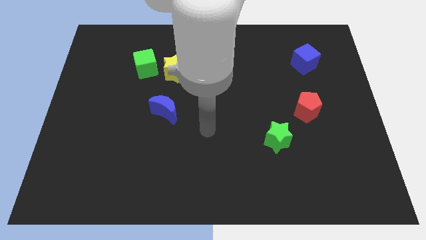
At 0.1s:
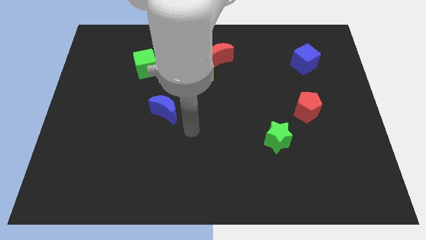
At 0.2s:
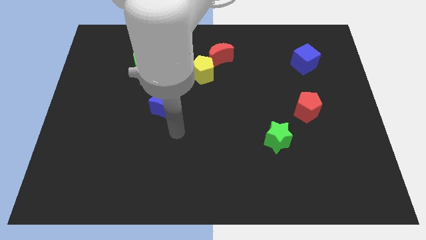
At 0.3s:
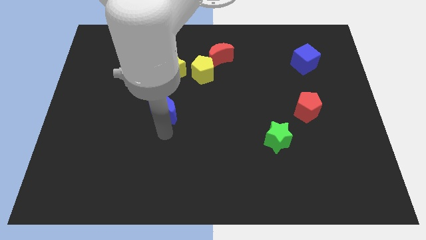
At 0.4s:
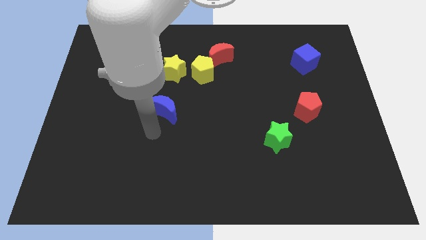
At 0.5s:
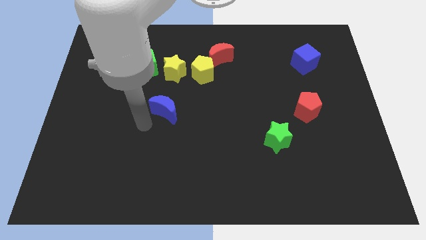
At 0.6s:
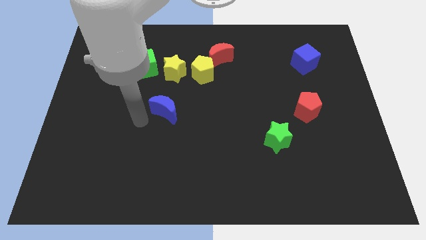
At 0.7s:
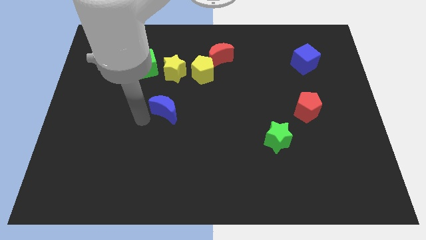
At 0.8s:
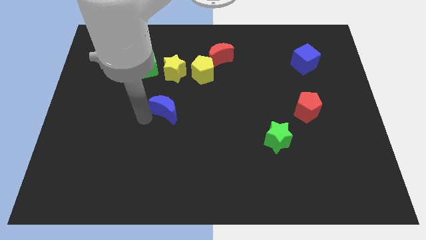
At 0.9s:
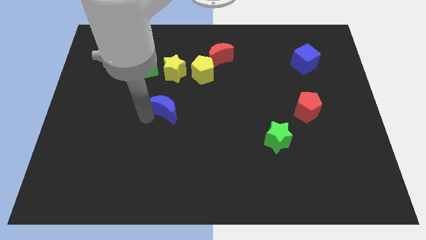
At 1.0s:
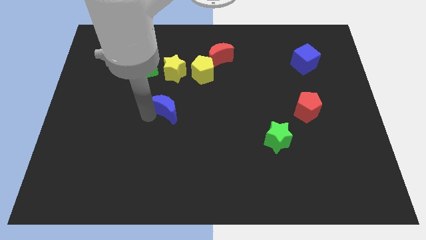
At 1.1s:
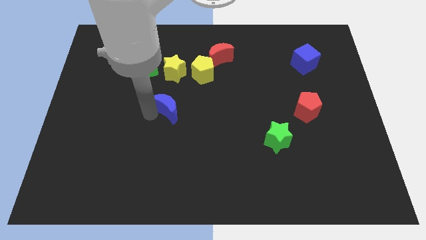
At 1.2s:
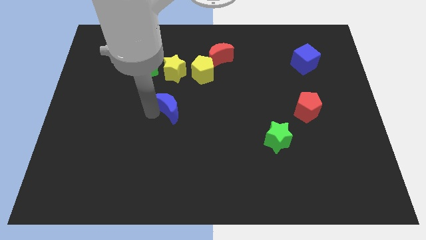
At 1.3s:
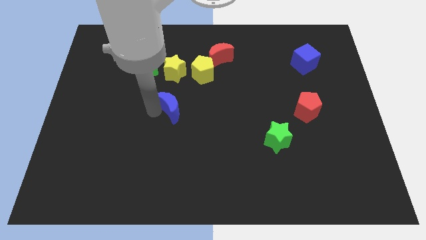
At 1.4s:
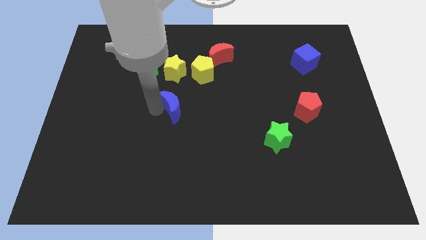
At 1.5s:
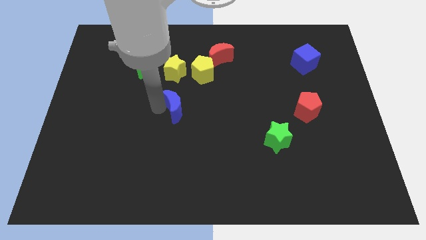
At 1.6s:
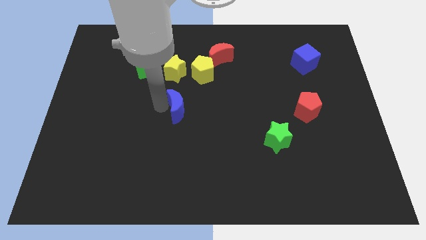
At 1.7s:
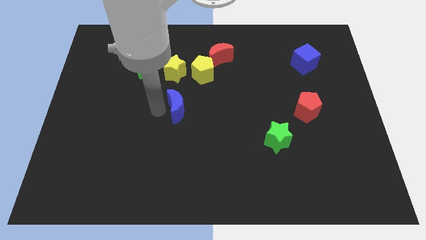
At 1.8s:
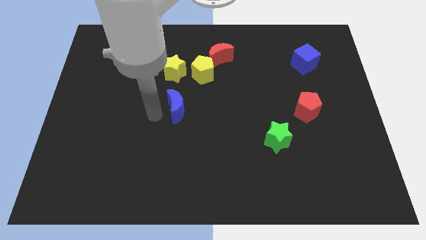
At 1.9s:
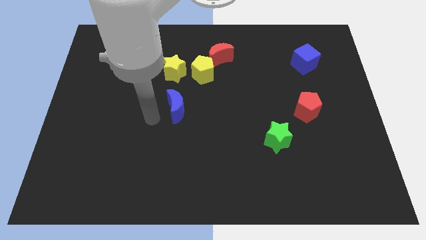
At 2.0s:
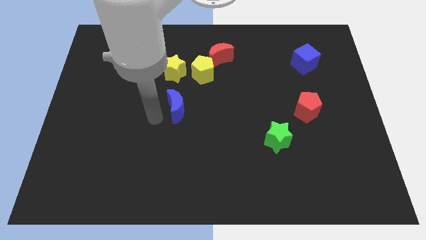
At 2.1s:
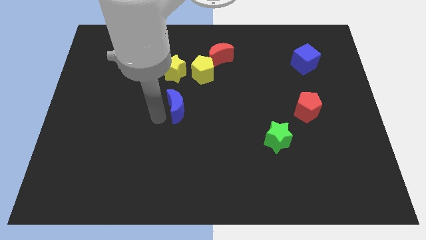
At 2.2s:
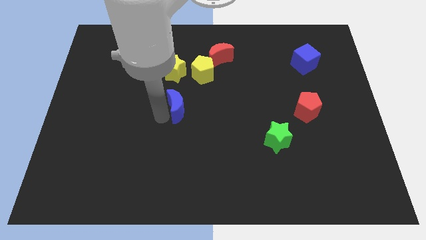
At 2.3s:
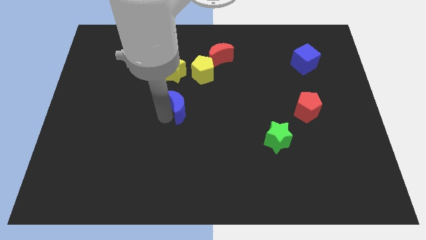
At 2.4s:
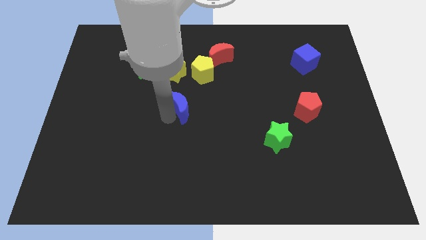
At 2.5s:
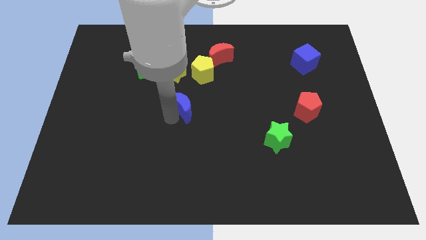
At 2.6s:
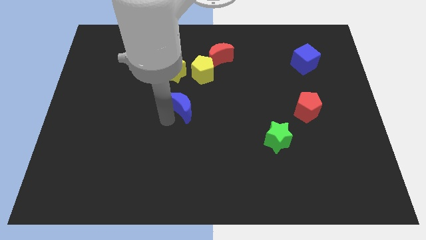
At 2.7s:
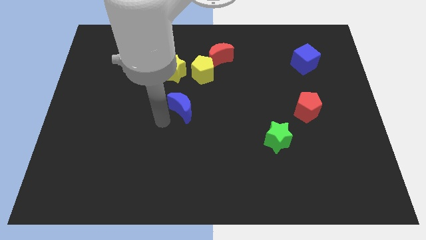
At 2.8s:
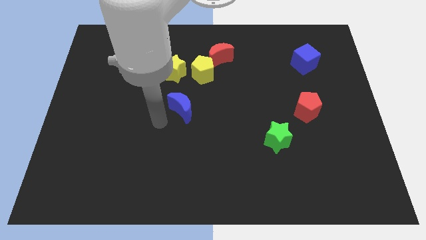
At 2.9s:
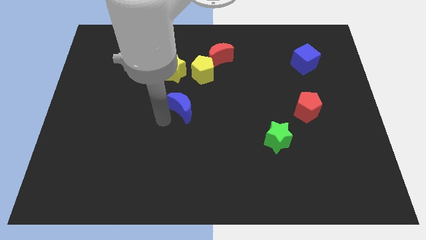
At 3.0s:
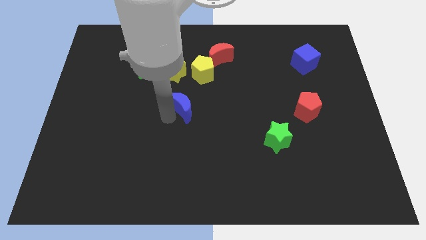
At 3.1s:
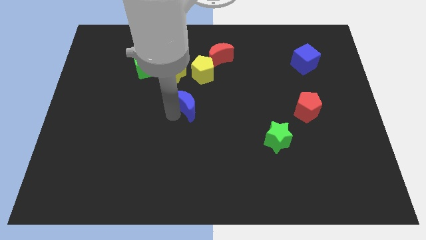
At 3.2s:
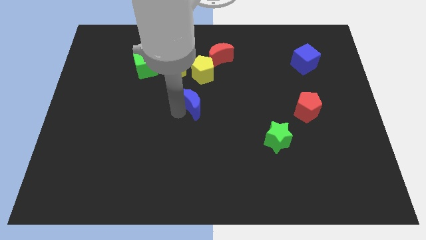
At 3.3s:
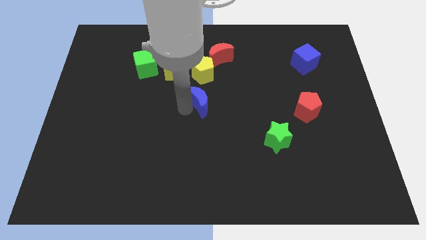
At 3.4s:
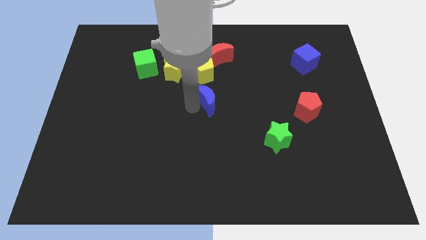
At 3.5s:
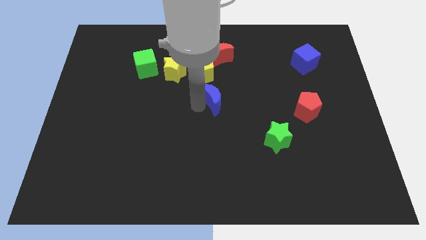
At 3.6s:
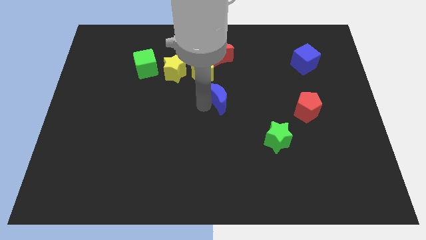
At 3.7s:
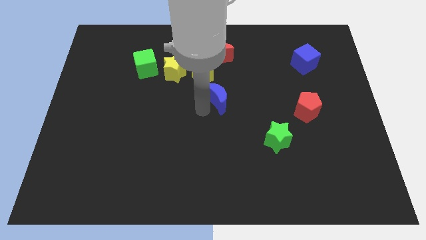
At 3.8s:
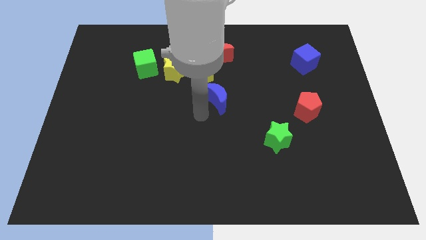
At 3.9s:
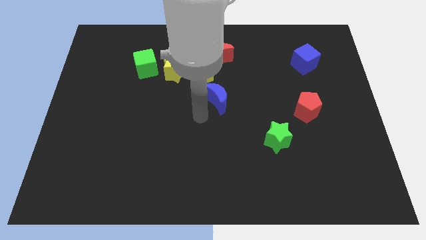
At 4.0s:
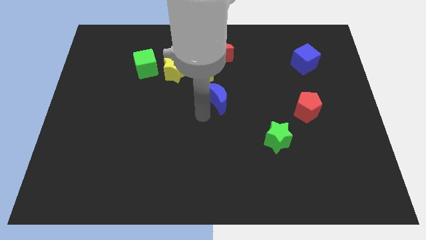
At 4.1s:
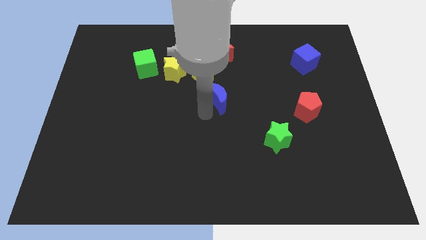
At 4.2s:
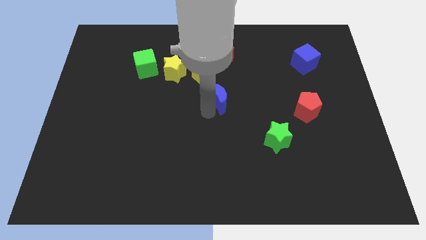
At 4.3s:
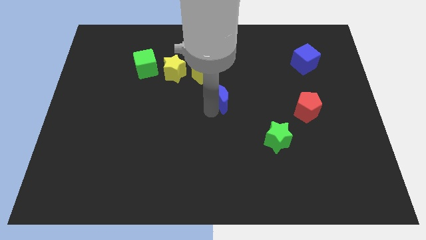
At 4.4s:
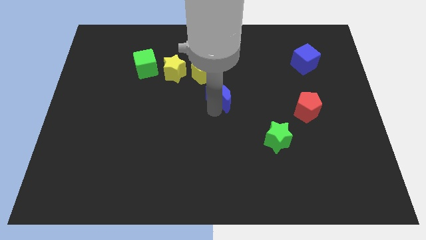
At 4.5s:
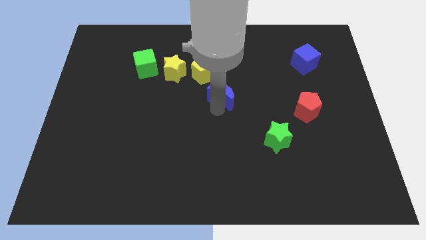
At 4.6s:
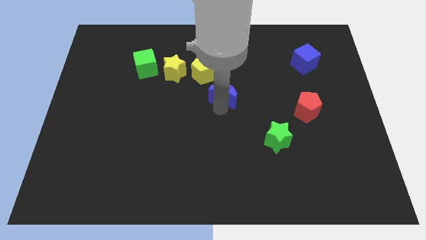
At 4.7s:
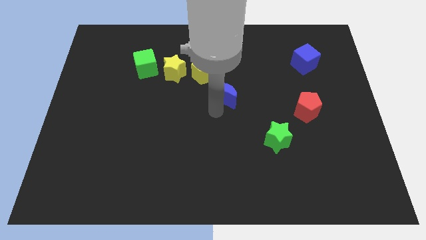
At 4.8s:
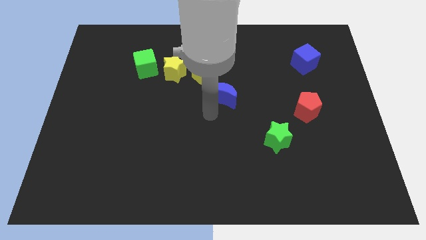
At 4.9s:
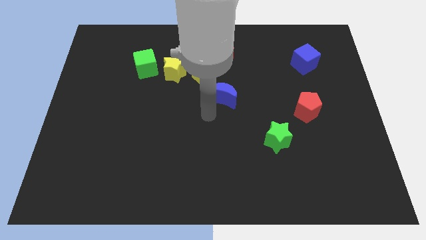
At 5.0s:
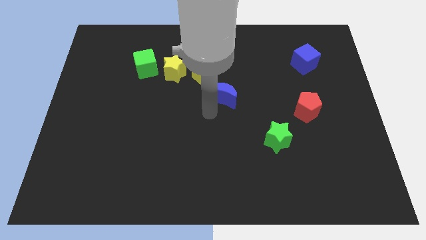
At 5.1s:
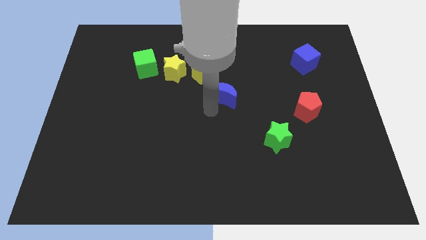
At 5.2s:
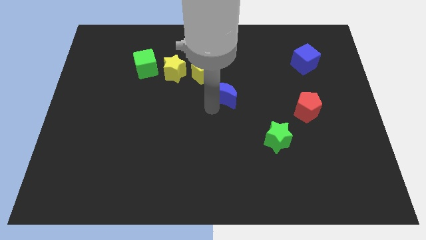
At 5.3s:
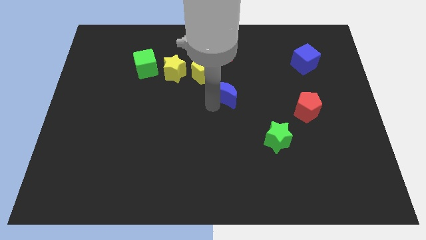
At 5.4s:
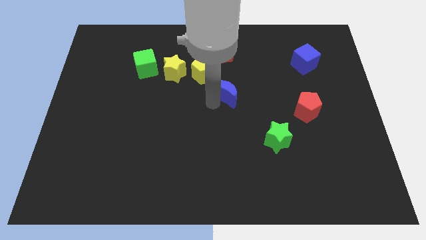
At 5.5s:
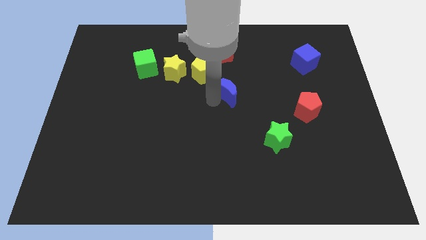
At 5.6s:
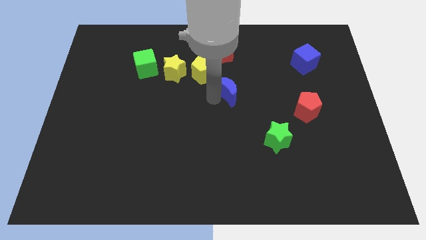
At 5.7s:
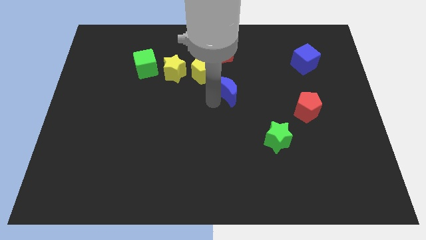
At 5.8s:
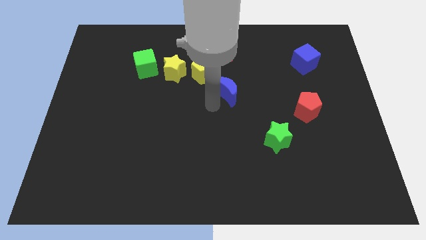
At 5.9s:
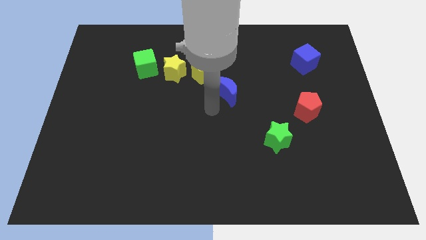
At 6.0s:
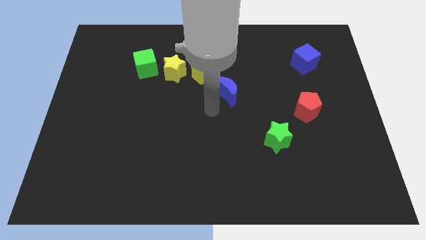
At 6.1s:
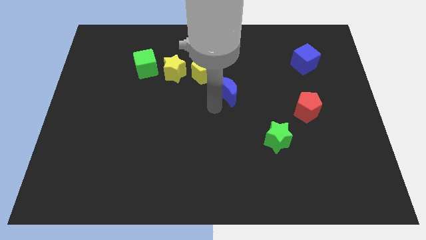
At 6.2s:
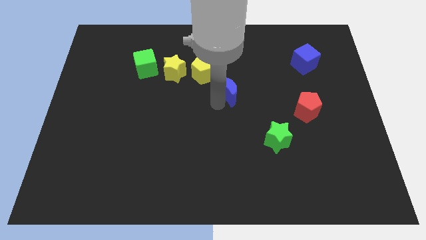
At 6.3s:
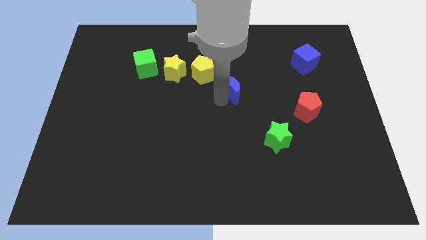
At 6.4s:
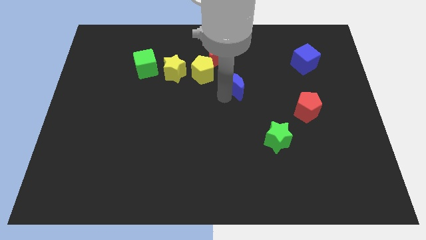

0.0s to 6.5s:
slide the blue moon to the right side of the yellow pentagon

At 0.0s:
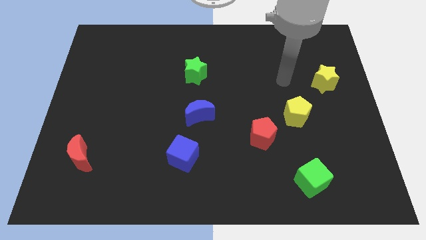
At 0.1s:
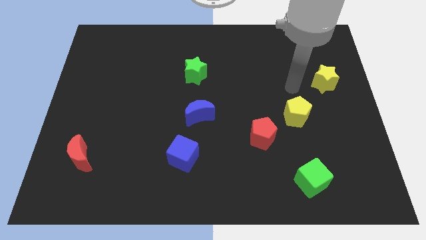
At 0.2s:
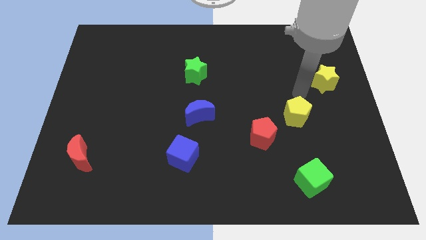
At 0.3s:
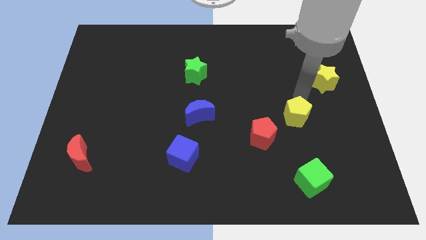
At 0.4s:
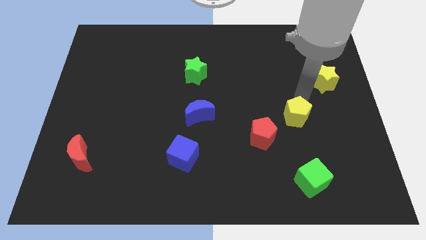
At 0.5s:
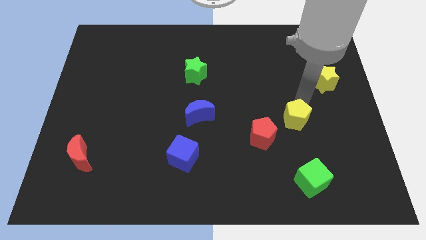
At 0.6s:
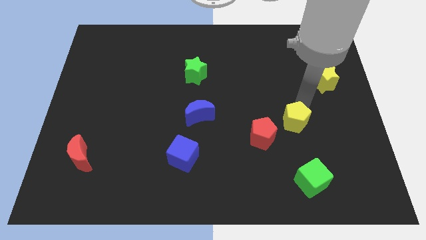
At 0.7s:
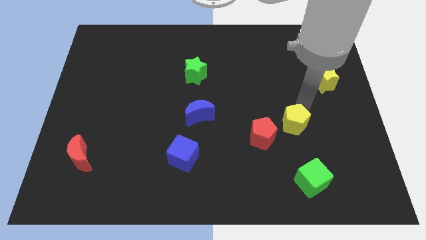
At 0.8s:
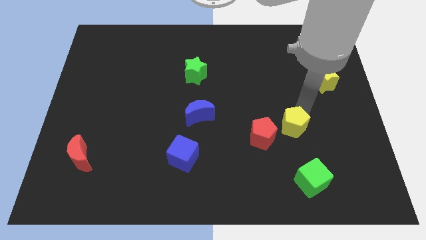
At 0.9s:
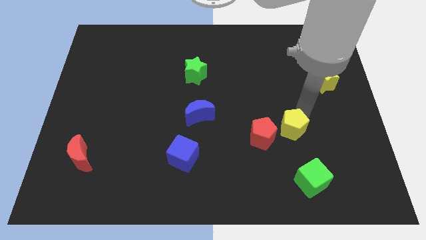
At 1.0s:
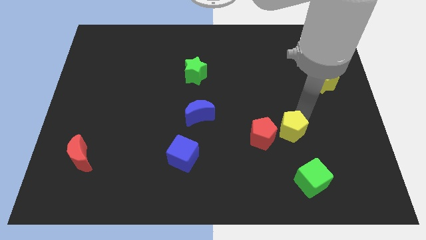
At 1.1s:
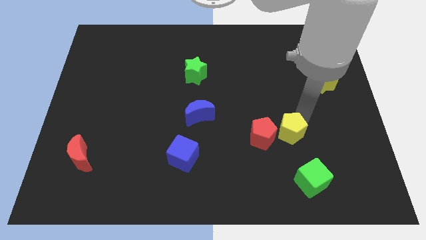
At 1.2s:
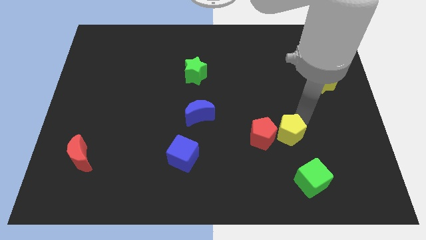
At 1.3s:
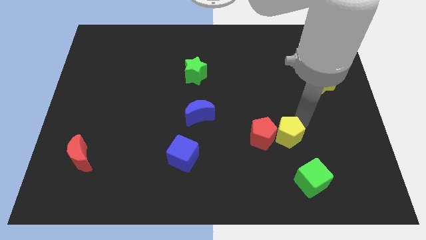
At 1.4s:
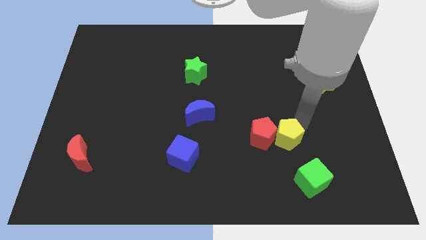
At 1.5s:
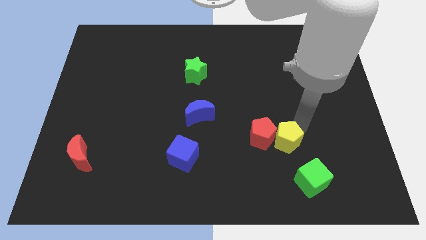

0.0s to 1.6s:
push the yellow pentagon diagonally up and to the left of the green cube
